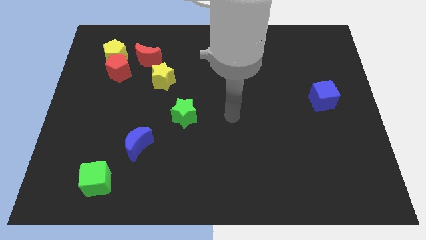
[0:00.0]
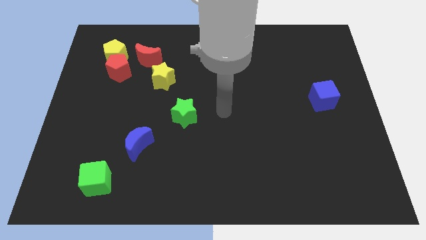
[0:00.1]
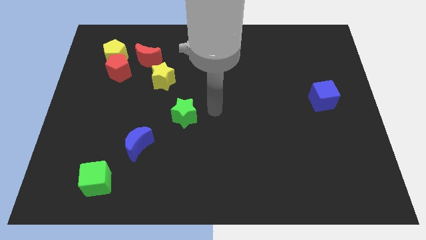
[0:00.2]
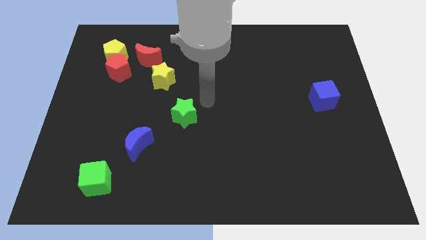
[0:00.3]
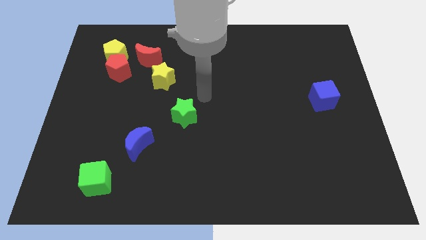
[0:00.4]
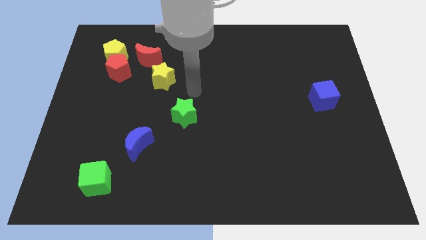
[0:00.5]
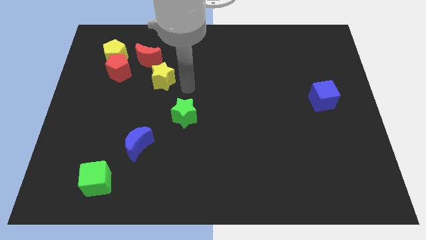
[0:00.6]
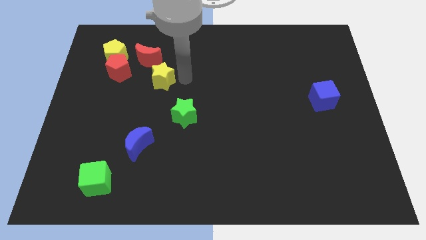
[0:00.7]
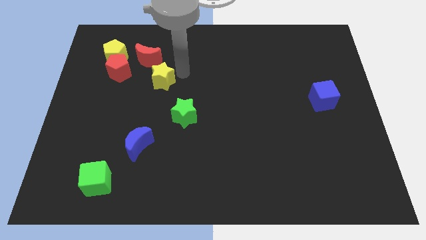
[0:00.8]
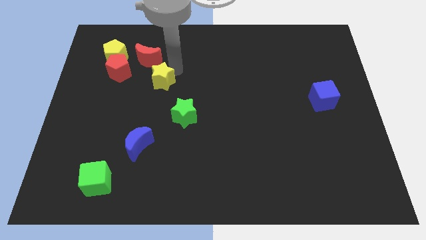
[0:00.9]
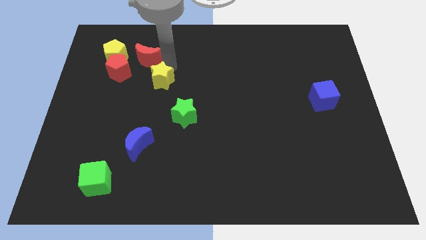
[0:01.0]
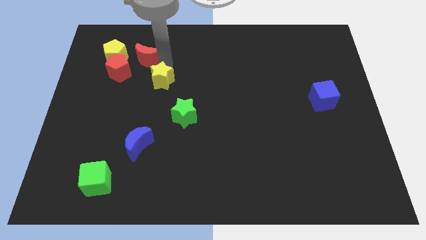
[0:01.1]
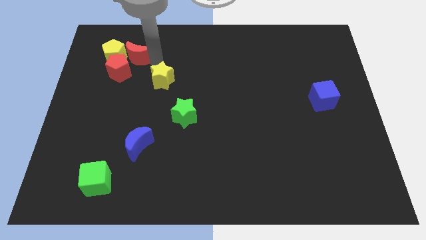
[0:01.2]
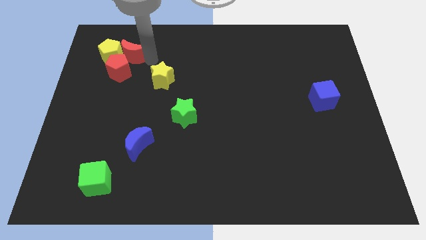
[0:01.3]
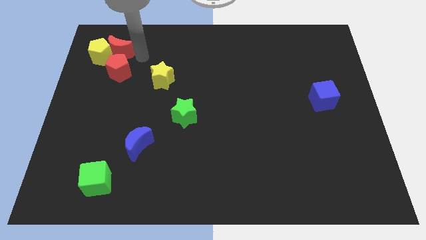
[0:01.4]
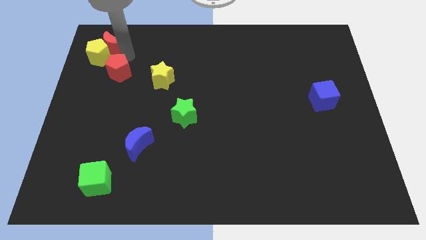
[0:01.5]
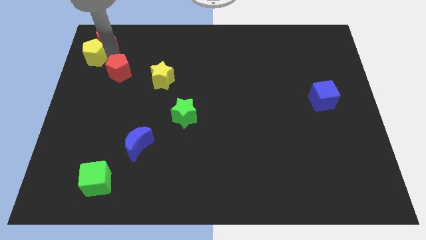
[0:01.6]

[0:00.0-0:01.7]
move the red pentagon away from the yellow pentagon and red moon

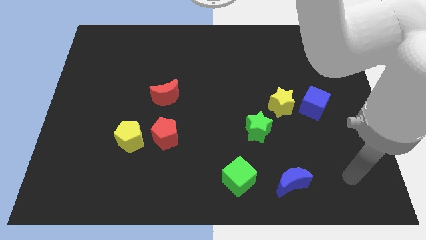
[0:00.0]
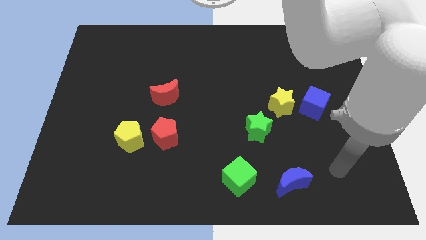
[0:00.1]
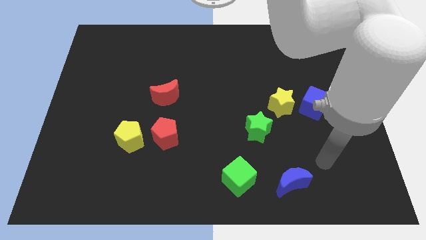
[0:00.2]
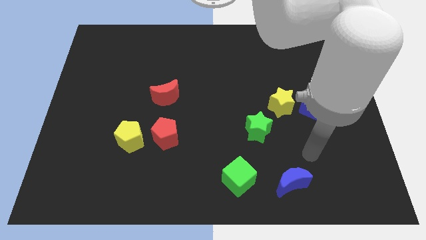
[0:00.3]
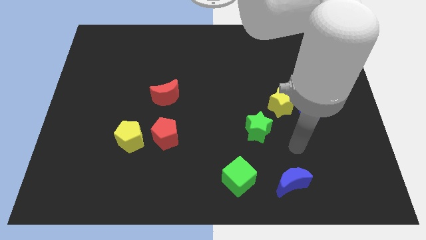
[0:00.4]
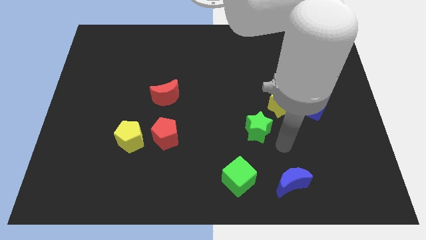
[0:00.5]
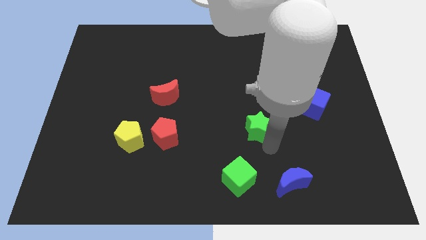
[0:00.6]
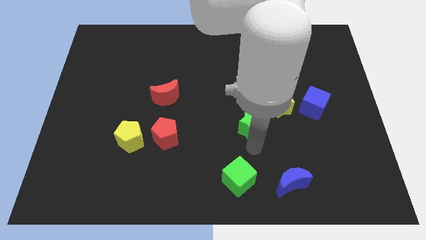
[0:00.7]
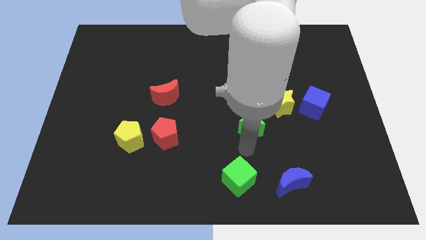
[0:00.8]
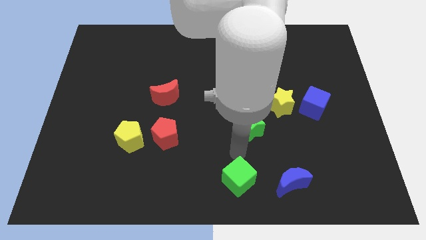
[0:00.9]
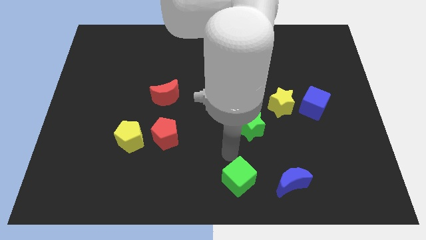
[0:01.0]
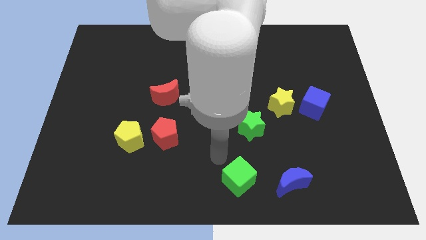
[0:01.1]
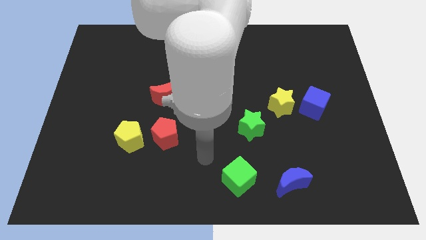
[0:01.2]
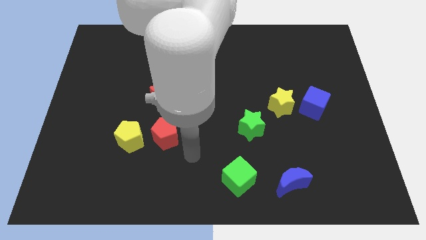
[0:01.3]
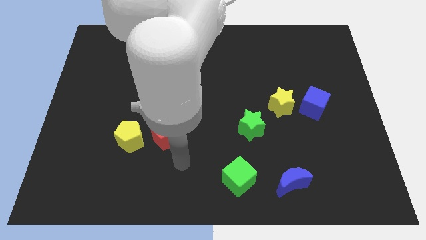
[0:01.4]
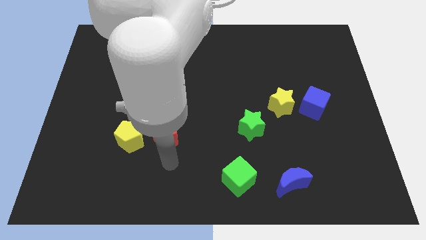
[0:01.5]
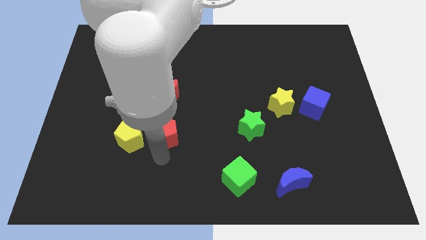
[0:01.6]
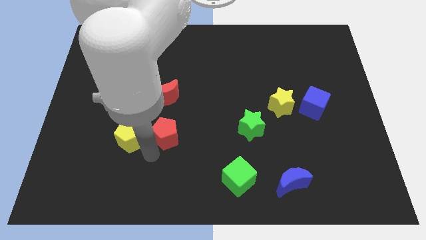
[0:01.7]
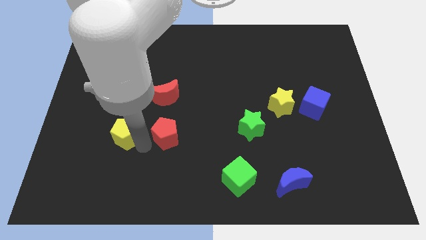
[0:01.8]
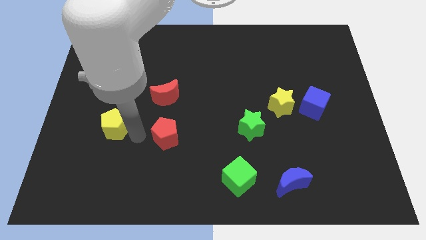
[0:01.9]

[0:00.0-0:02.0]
separate the red pentagon from the yellow pentagon

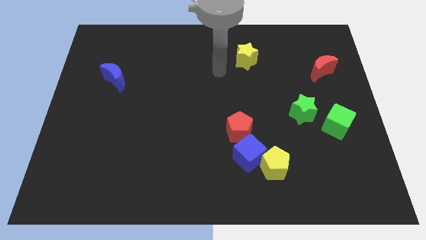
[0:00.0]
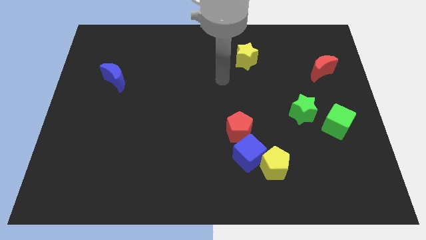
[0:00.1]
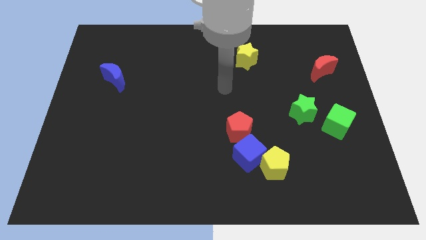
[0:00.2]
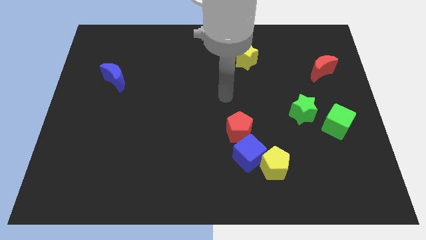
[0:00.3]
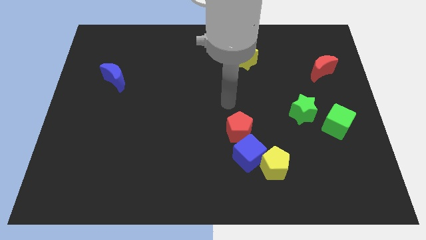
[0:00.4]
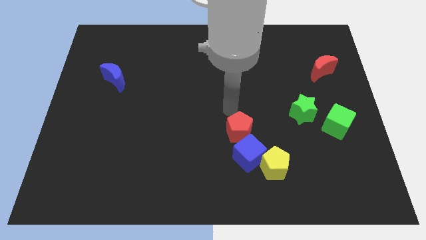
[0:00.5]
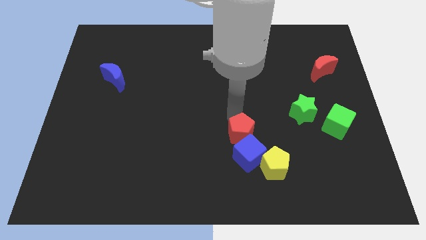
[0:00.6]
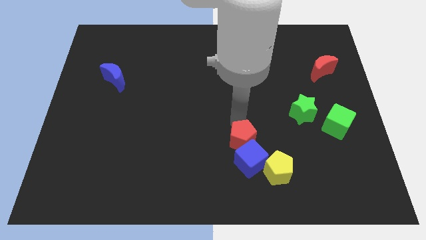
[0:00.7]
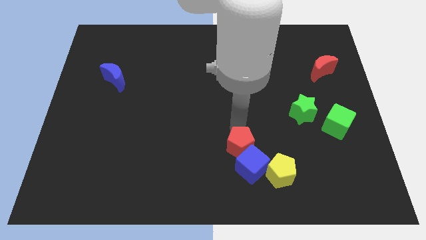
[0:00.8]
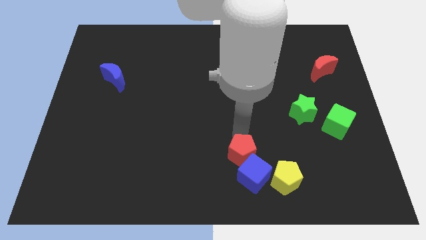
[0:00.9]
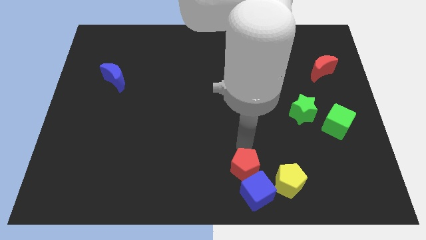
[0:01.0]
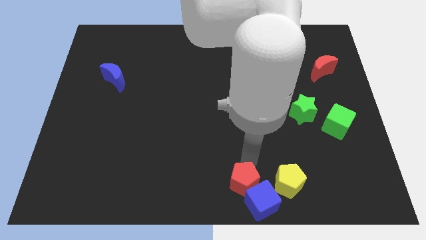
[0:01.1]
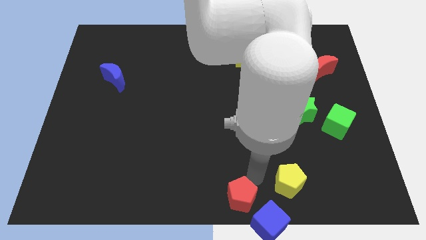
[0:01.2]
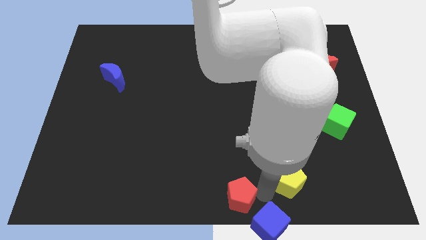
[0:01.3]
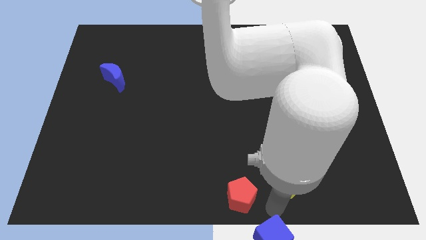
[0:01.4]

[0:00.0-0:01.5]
move the yellow pentagon away from the blue cube

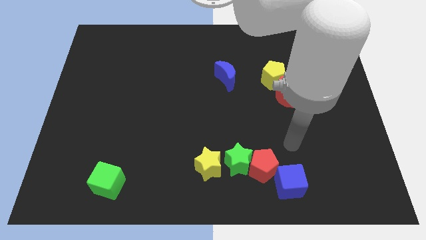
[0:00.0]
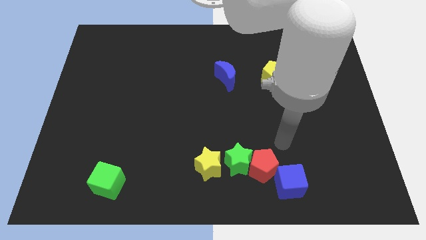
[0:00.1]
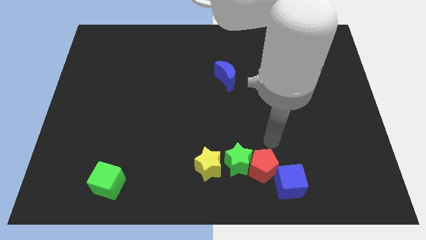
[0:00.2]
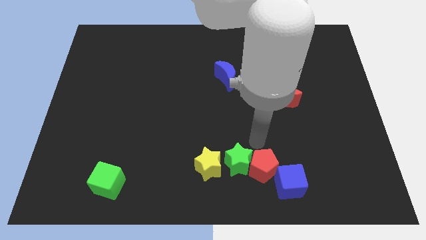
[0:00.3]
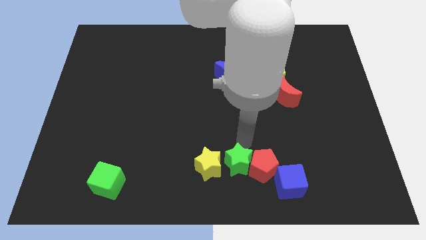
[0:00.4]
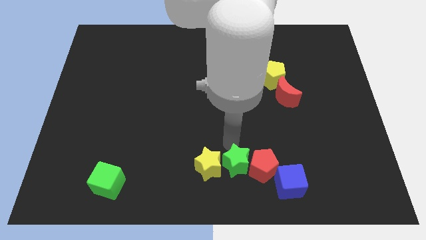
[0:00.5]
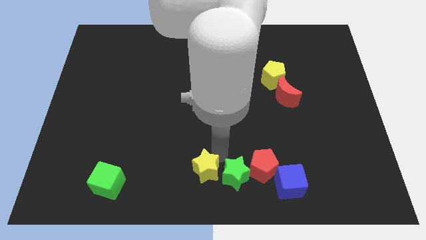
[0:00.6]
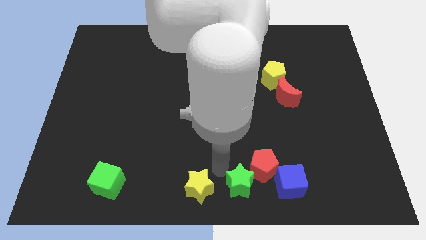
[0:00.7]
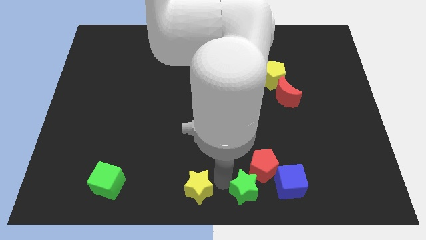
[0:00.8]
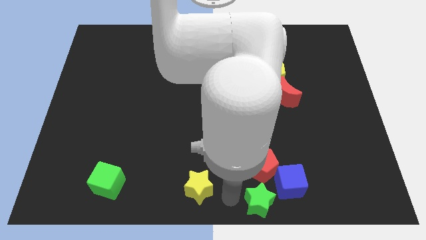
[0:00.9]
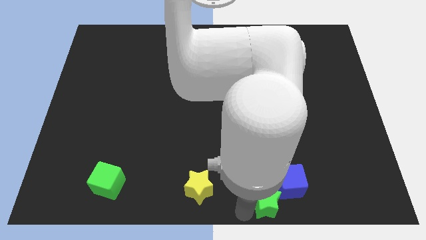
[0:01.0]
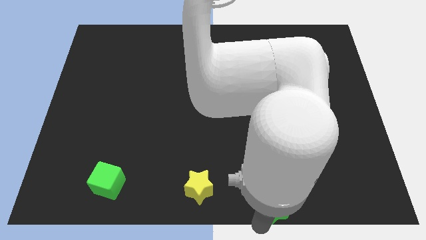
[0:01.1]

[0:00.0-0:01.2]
move the green star away from the red pentagon and yellow star

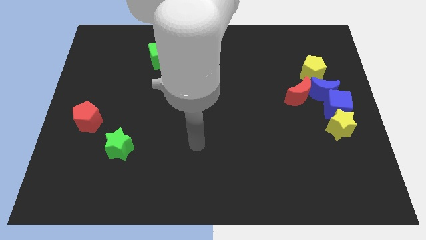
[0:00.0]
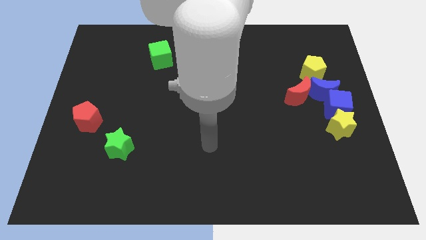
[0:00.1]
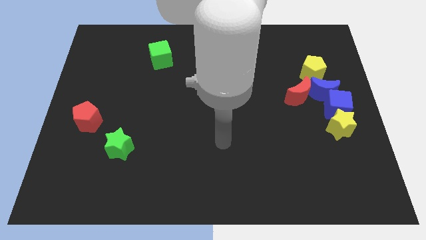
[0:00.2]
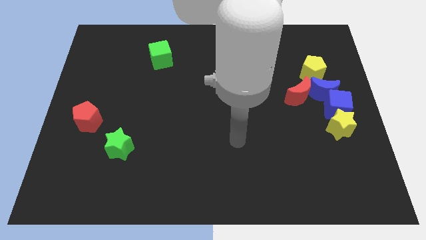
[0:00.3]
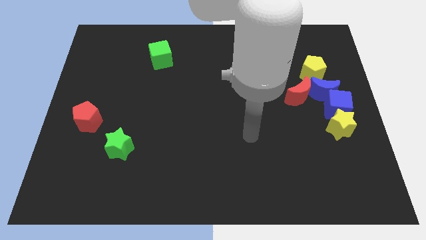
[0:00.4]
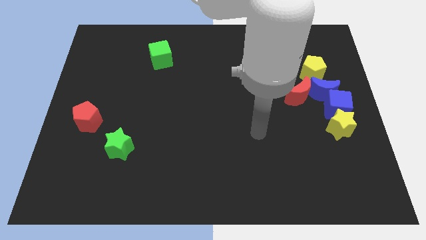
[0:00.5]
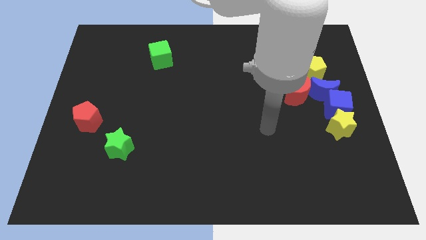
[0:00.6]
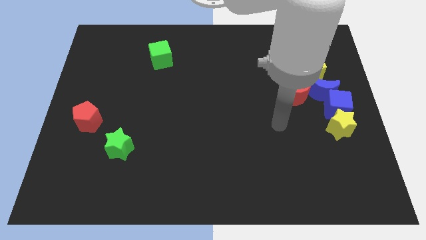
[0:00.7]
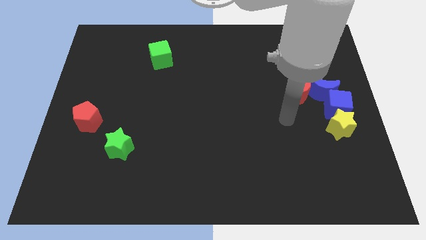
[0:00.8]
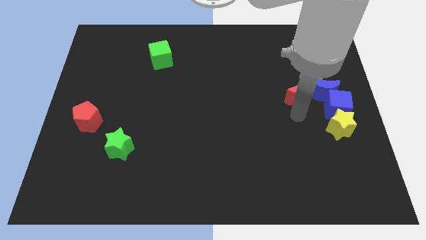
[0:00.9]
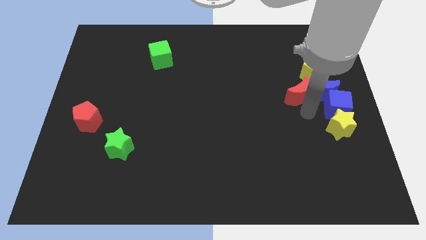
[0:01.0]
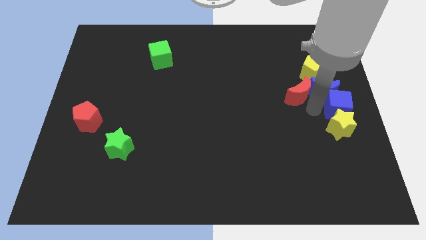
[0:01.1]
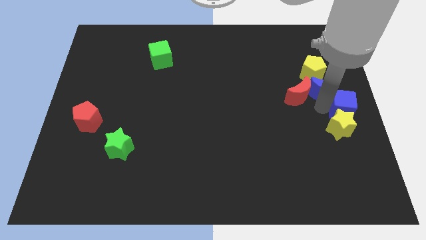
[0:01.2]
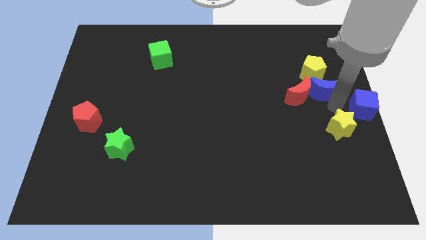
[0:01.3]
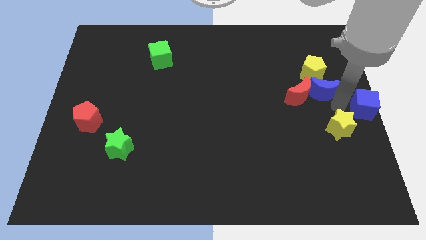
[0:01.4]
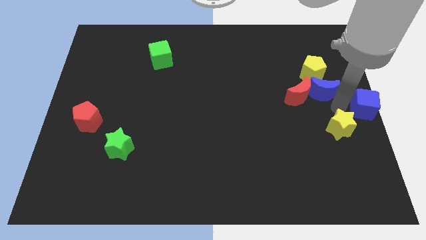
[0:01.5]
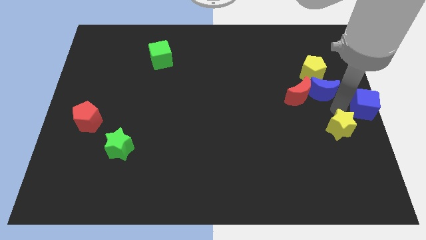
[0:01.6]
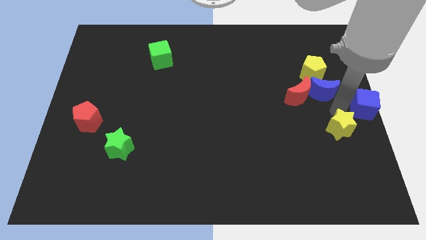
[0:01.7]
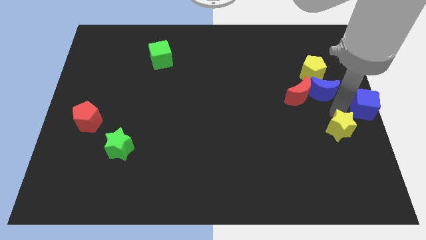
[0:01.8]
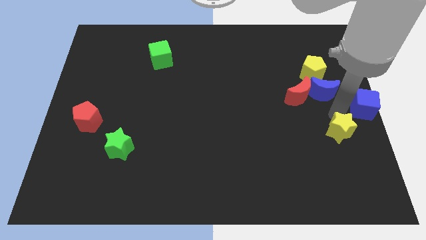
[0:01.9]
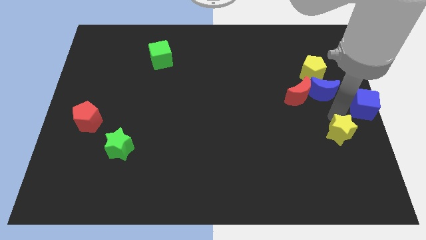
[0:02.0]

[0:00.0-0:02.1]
move the yellow star away from the blue cube

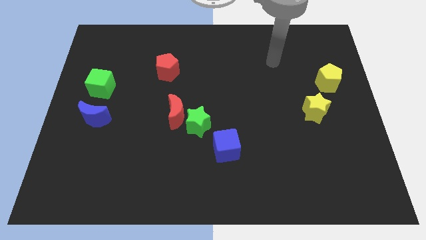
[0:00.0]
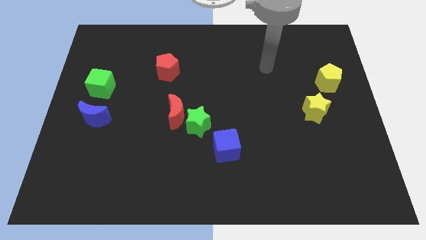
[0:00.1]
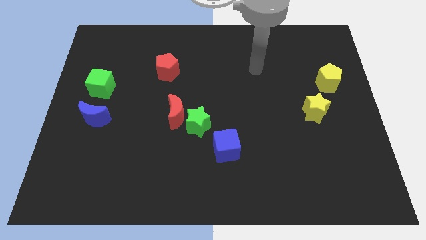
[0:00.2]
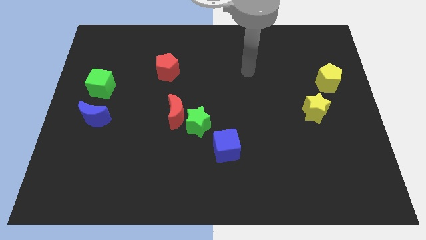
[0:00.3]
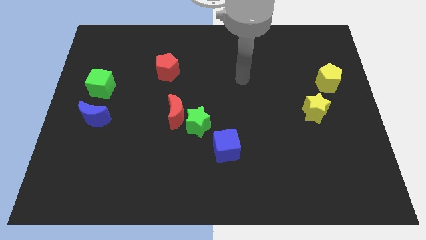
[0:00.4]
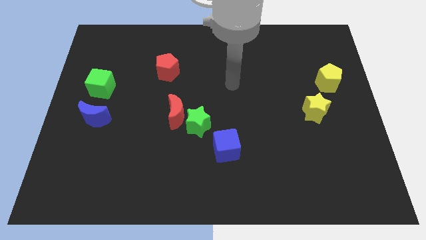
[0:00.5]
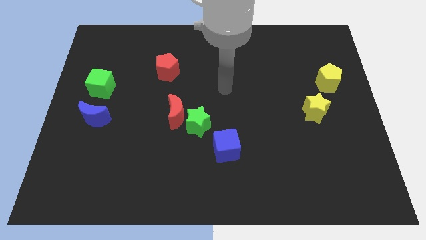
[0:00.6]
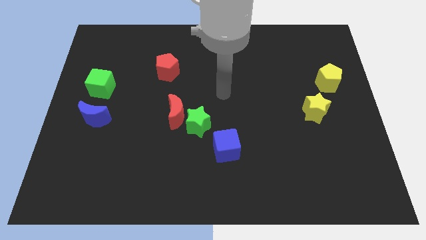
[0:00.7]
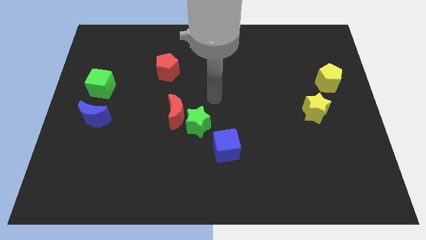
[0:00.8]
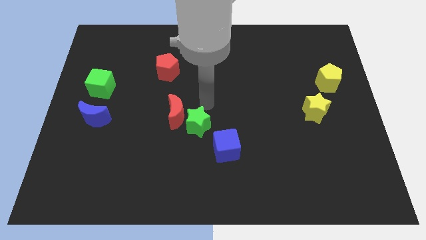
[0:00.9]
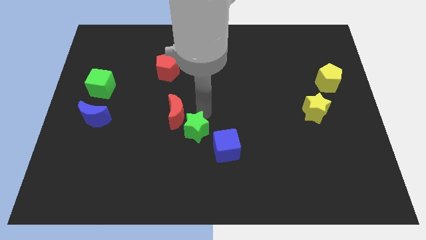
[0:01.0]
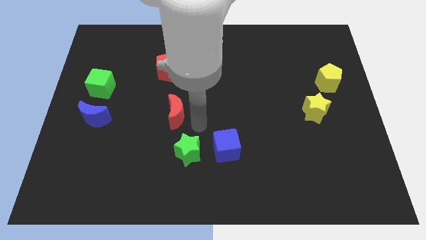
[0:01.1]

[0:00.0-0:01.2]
pull the red moon apart from the green star
